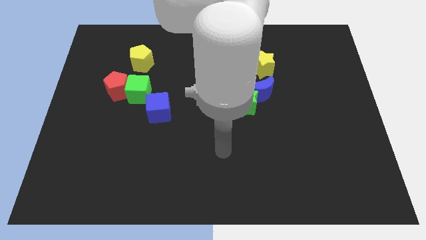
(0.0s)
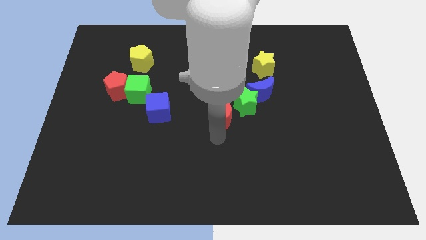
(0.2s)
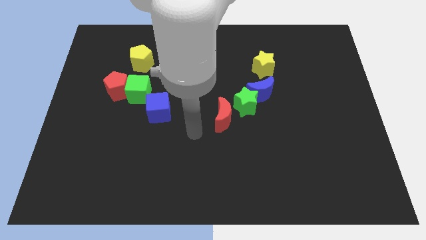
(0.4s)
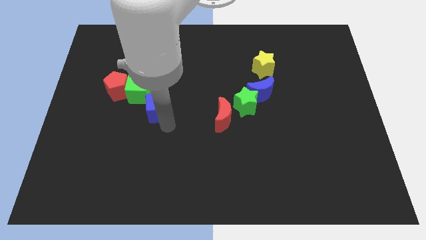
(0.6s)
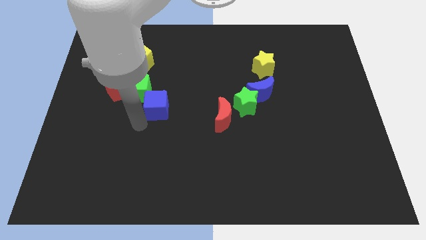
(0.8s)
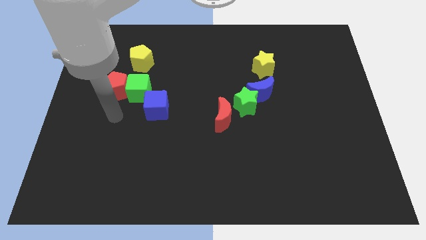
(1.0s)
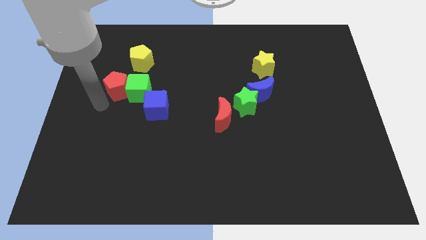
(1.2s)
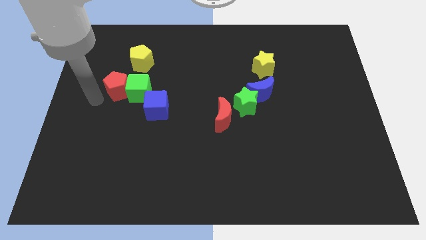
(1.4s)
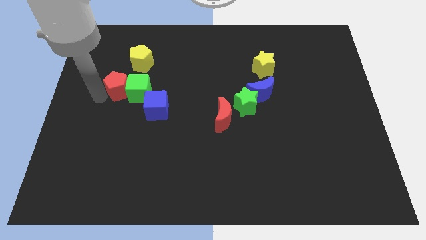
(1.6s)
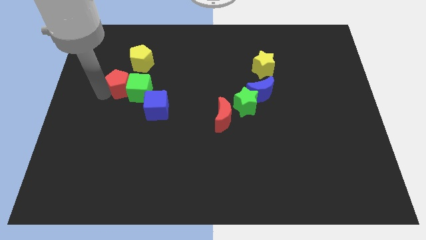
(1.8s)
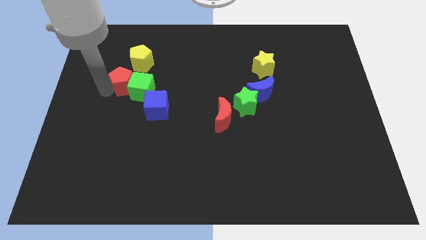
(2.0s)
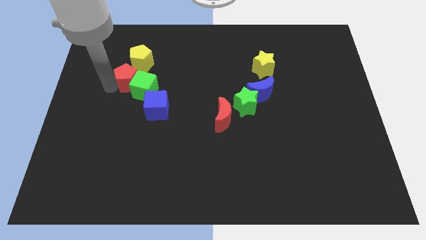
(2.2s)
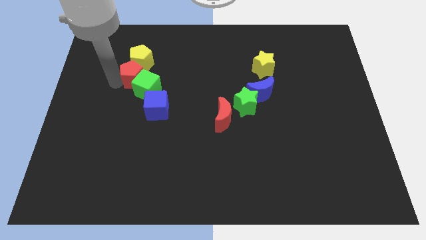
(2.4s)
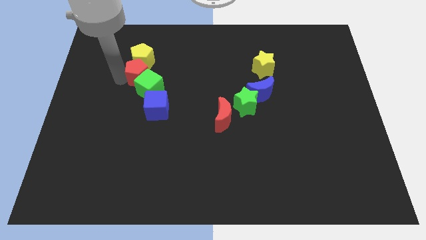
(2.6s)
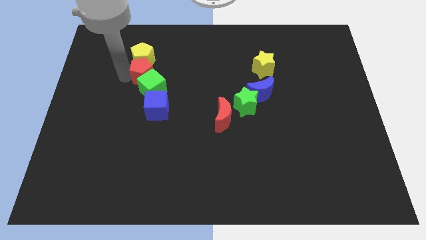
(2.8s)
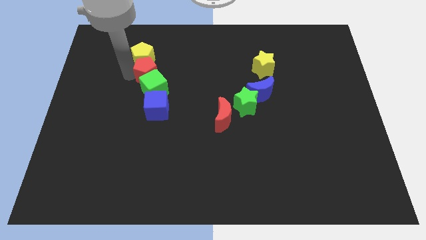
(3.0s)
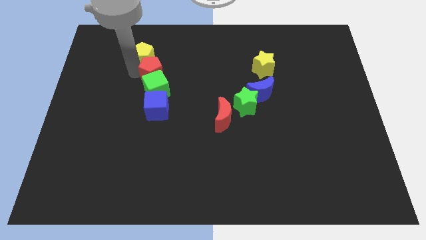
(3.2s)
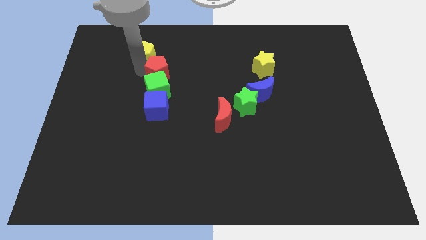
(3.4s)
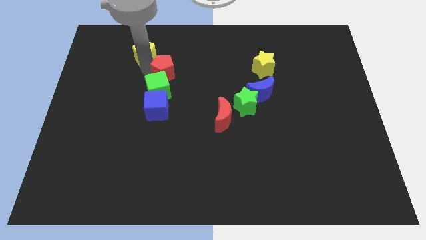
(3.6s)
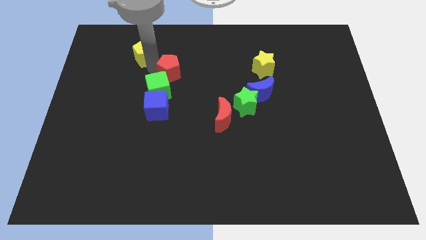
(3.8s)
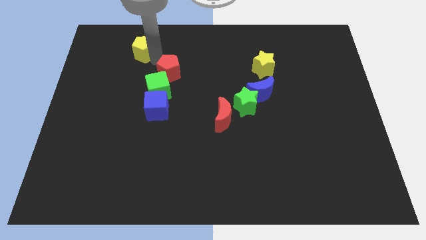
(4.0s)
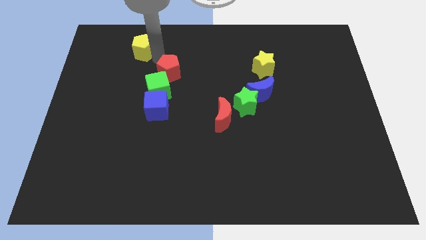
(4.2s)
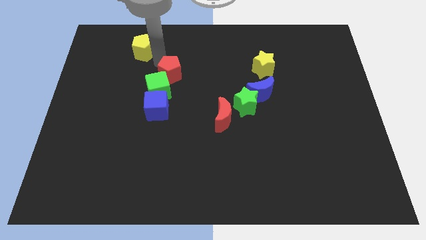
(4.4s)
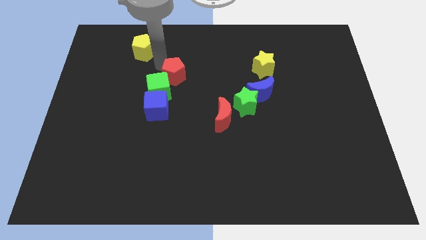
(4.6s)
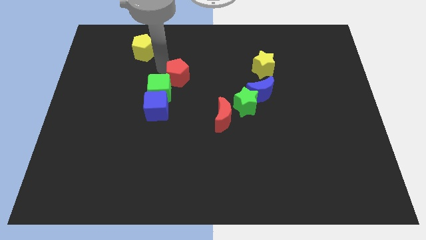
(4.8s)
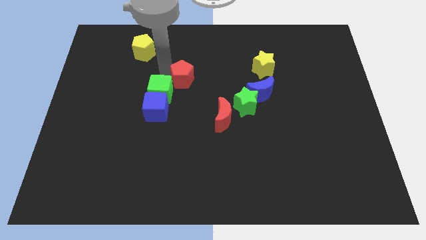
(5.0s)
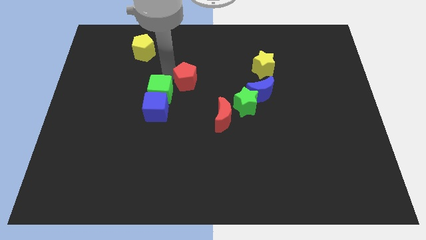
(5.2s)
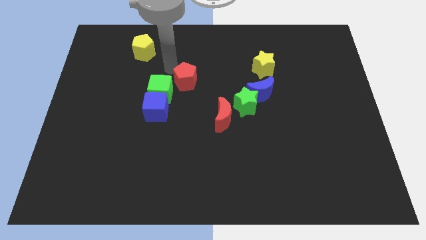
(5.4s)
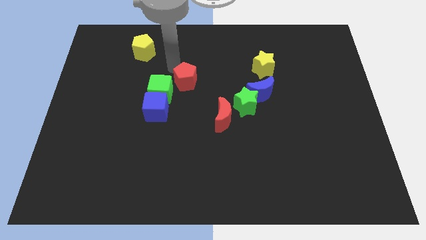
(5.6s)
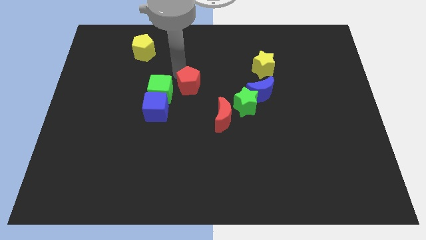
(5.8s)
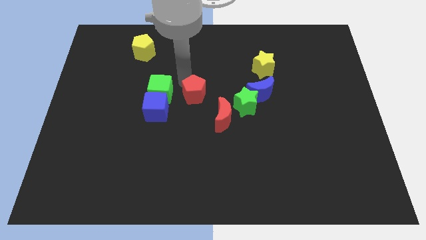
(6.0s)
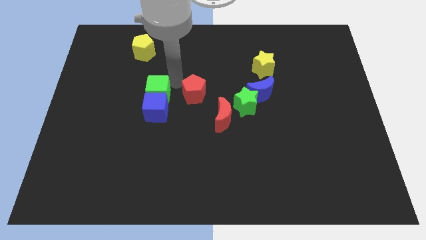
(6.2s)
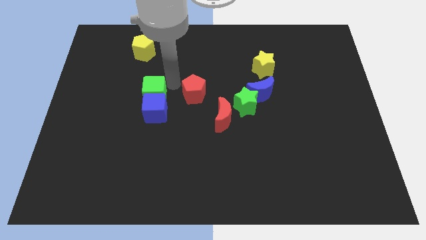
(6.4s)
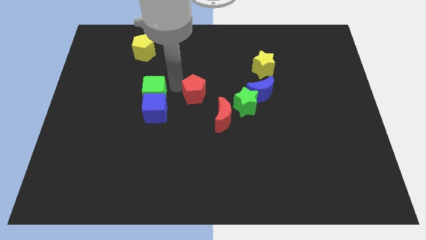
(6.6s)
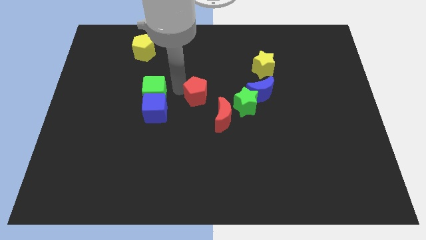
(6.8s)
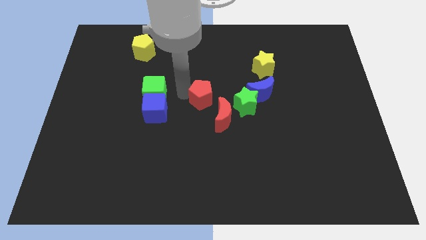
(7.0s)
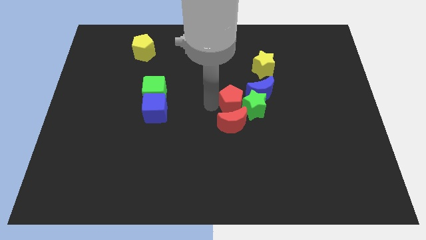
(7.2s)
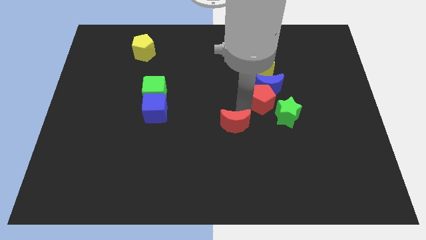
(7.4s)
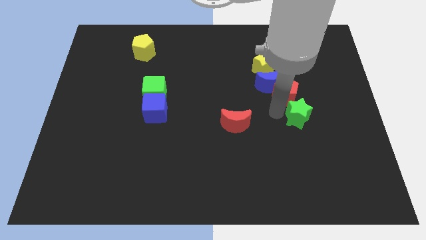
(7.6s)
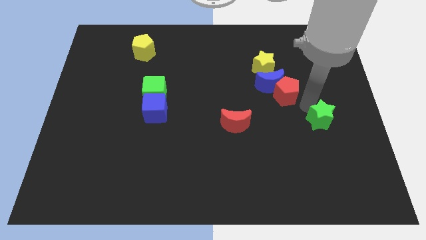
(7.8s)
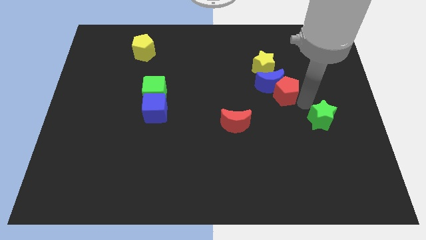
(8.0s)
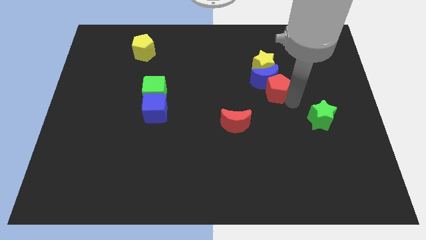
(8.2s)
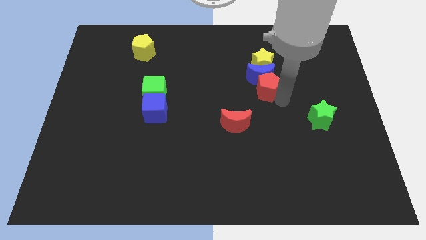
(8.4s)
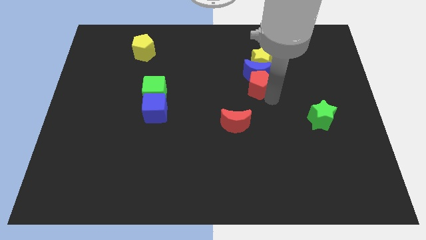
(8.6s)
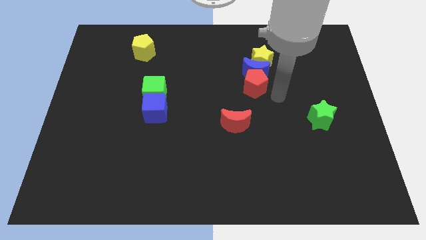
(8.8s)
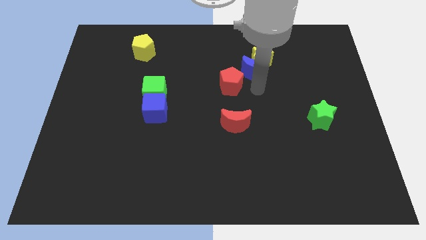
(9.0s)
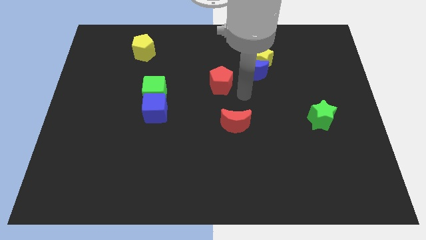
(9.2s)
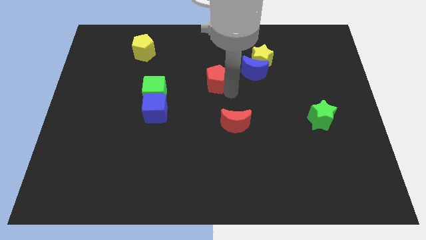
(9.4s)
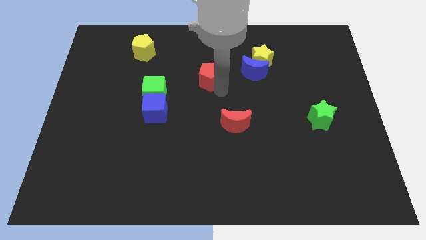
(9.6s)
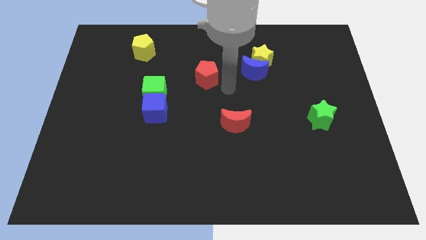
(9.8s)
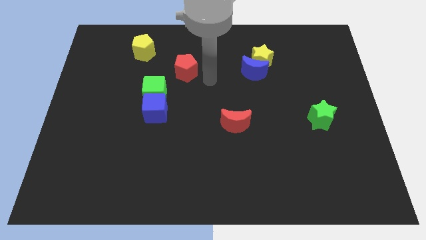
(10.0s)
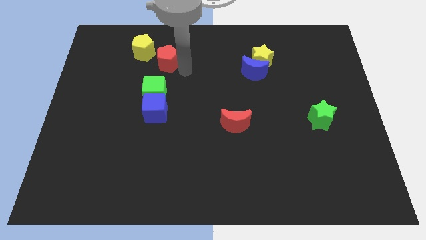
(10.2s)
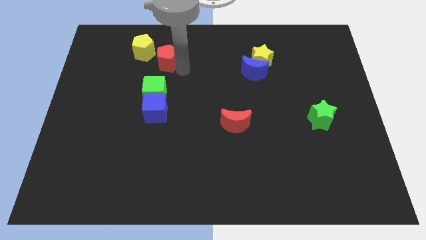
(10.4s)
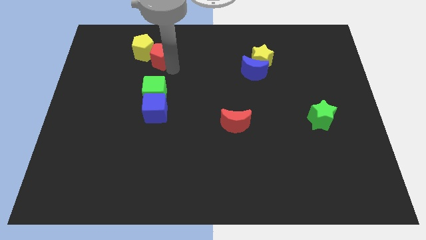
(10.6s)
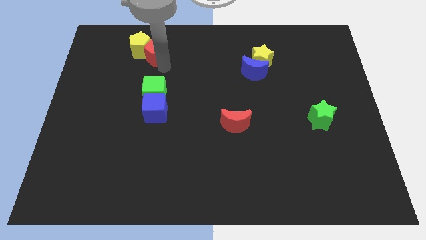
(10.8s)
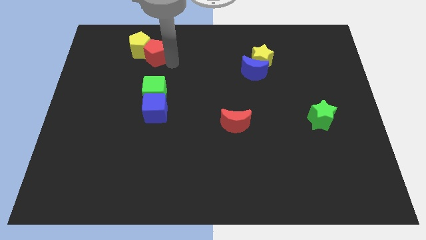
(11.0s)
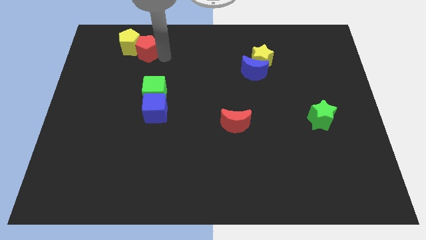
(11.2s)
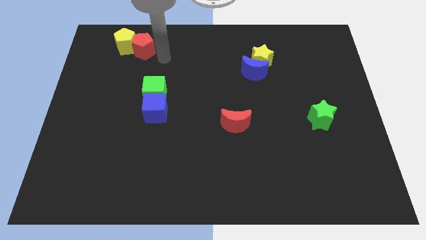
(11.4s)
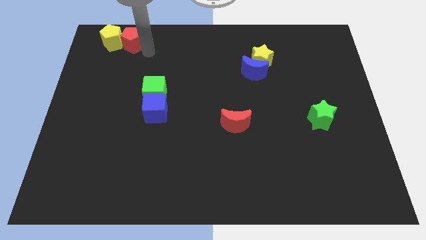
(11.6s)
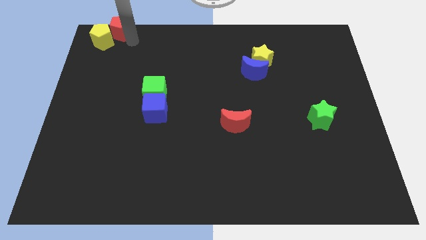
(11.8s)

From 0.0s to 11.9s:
move the red pentagon to the top left corner
